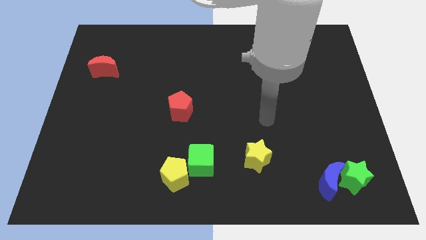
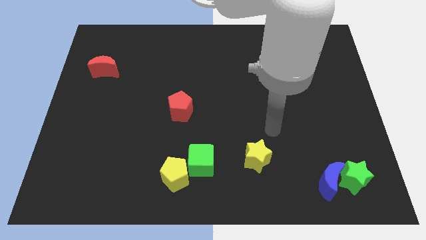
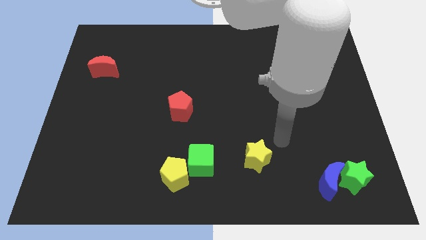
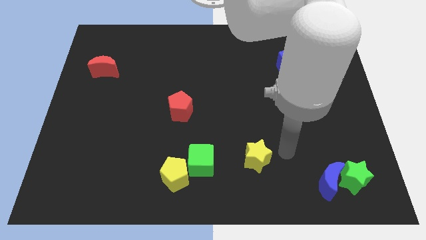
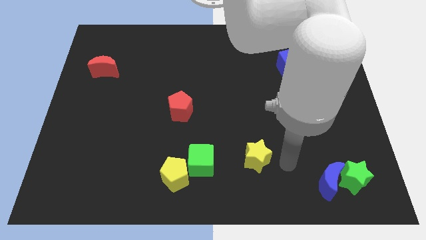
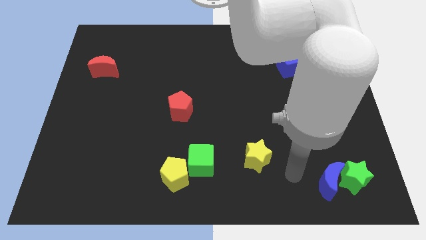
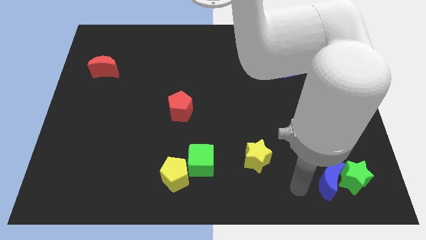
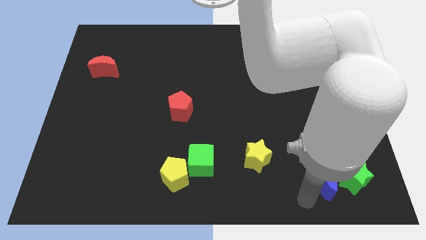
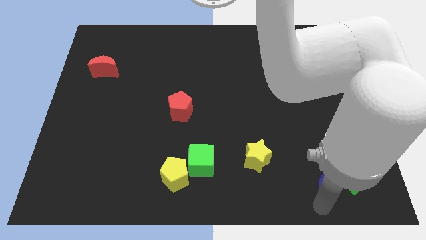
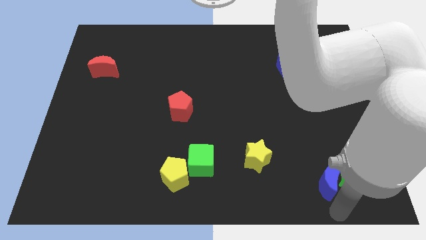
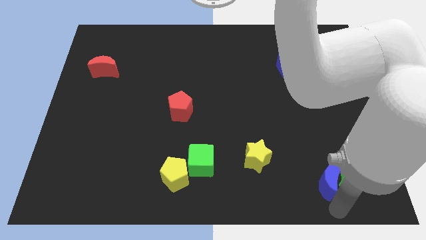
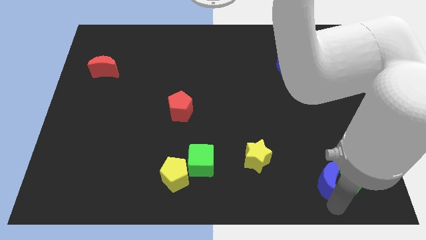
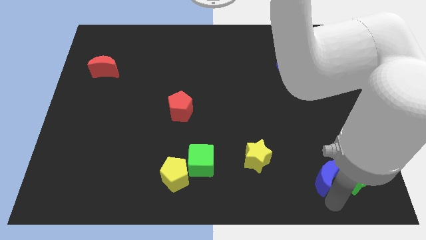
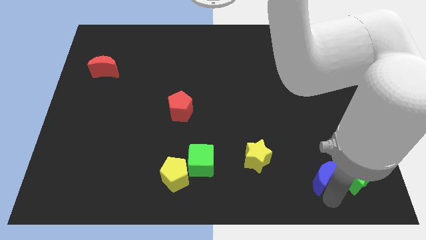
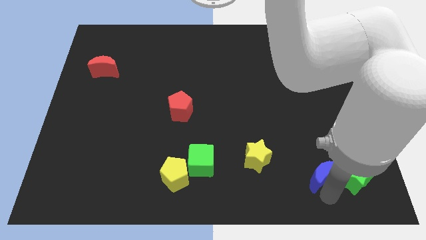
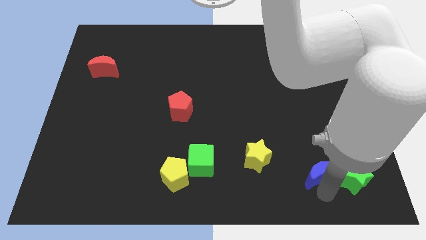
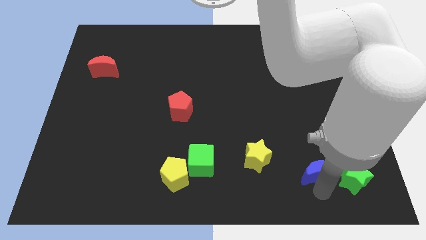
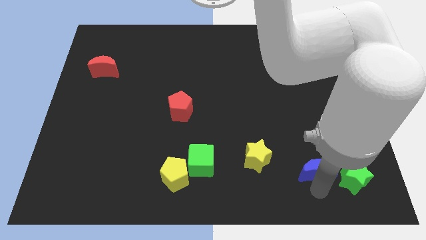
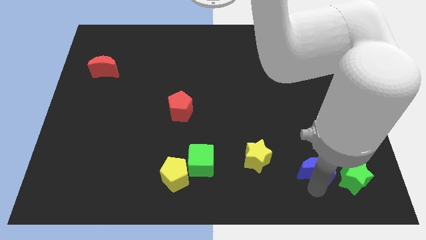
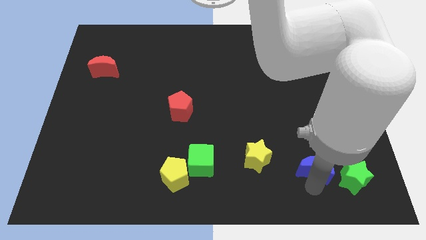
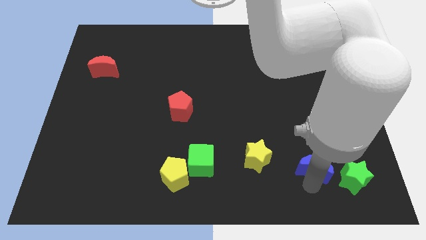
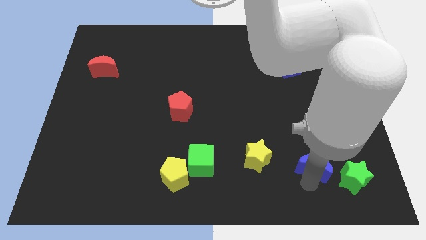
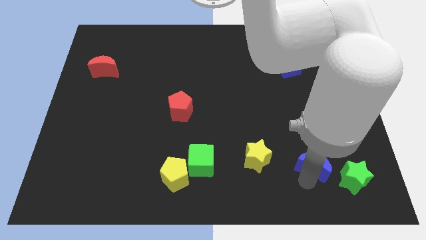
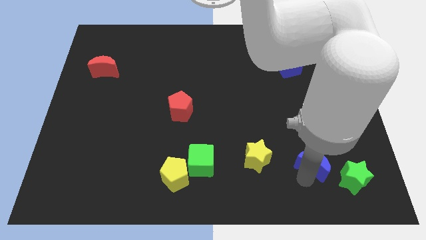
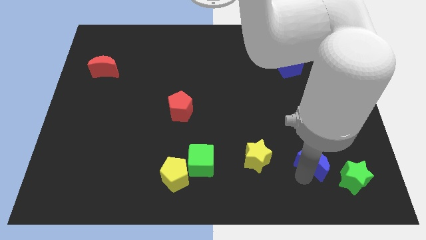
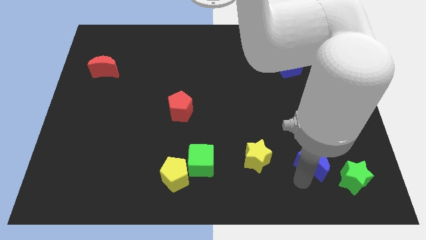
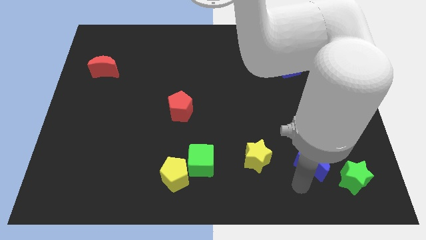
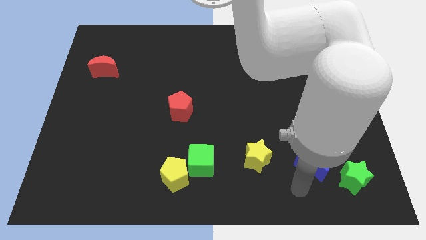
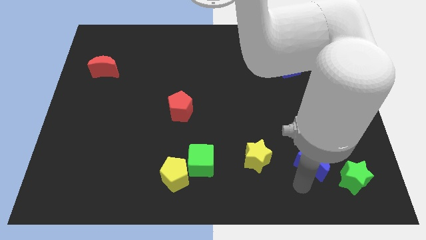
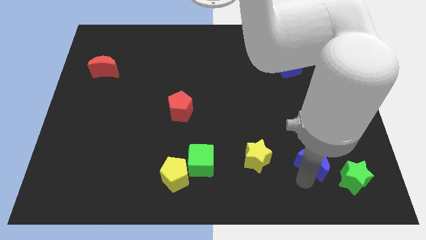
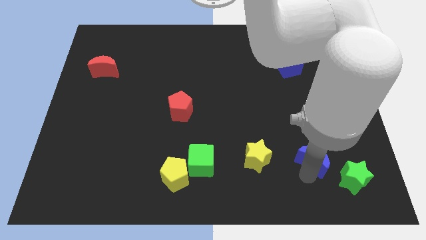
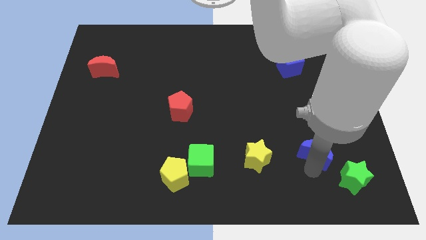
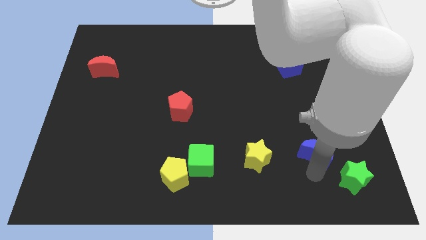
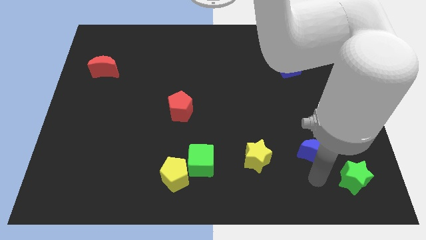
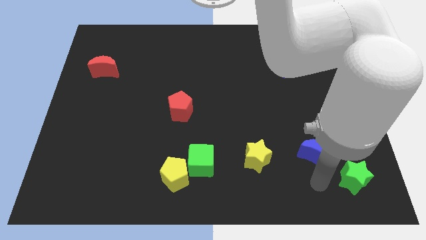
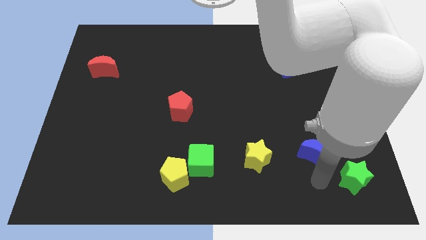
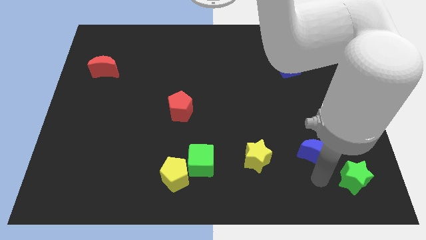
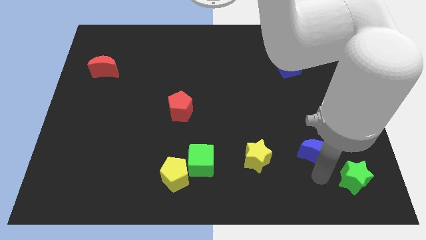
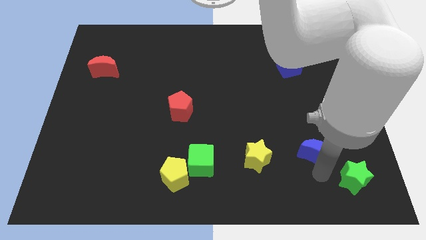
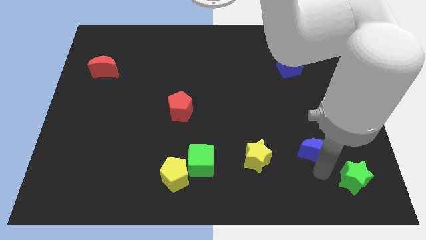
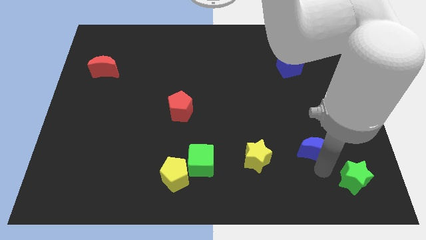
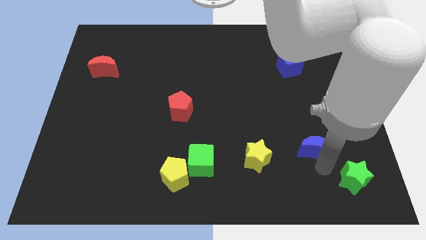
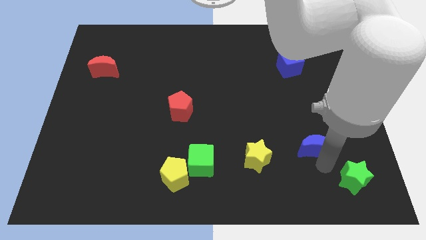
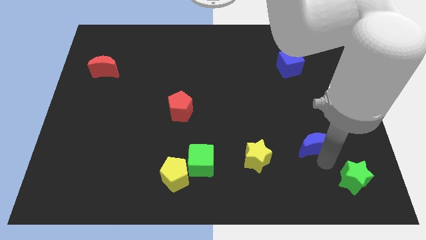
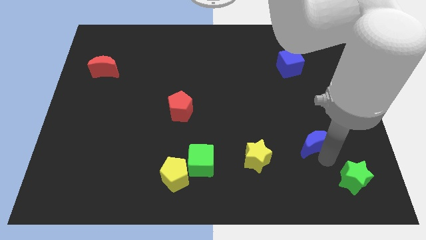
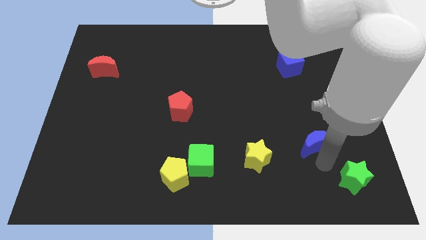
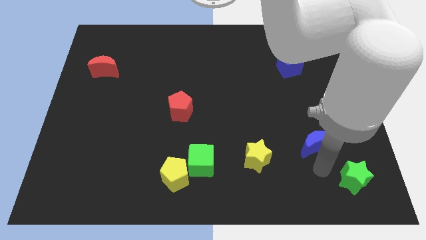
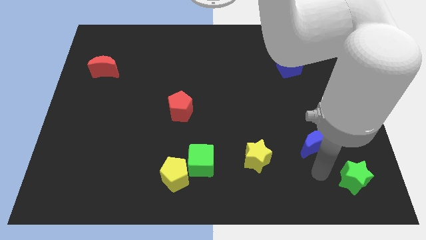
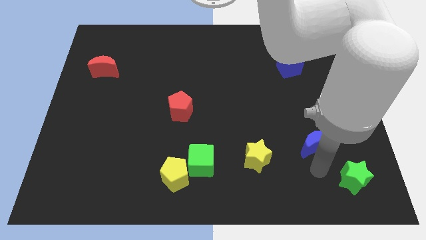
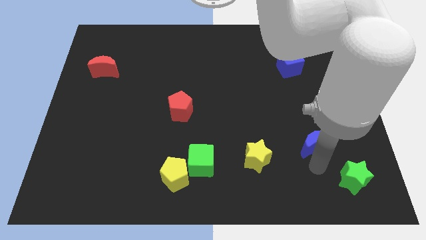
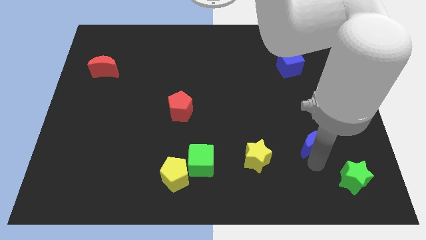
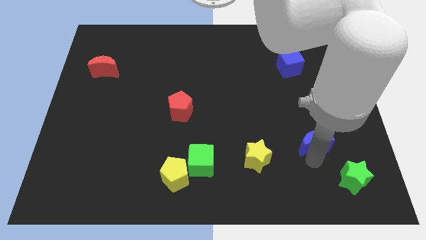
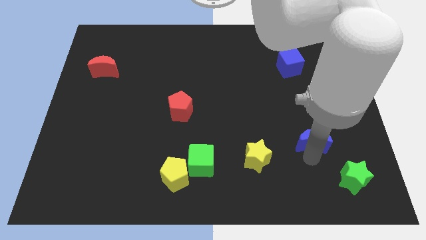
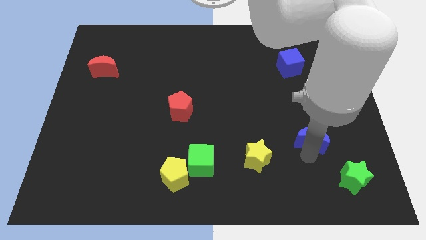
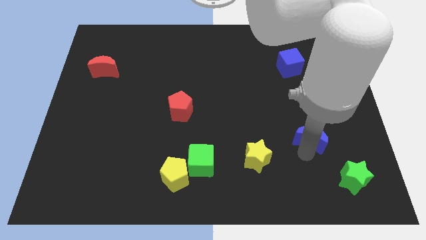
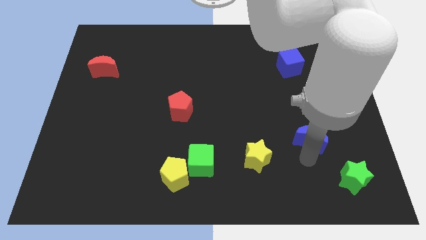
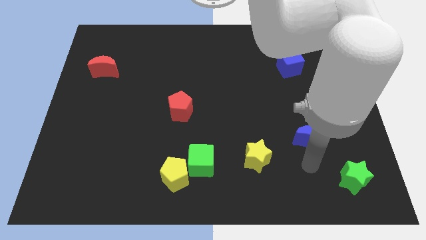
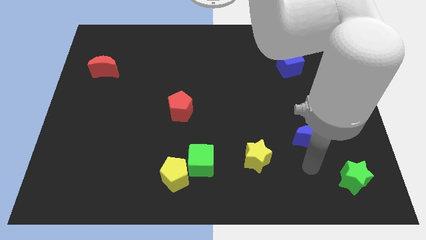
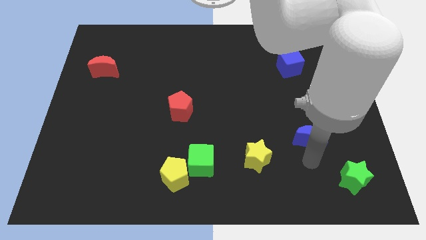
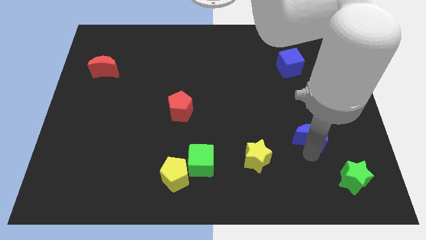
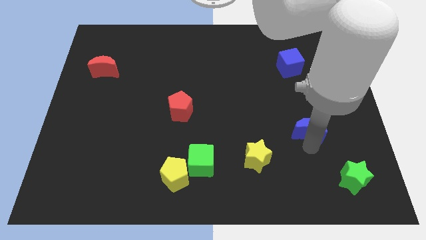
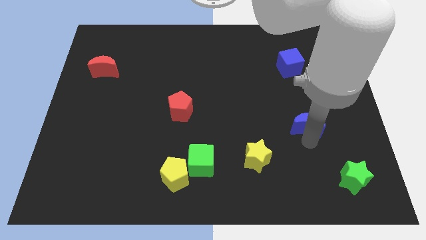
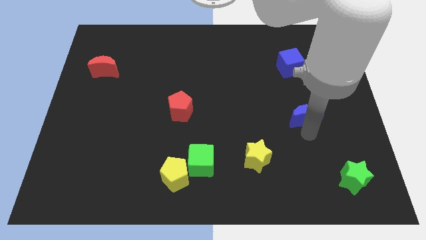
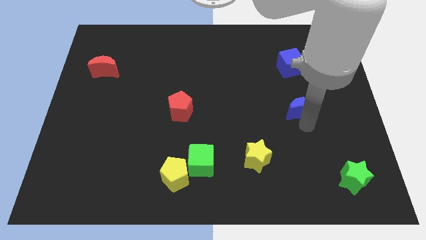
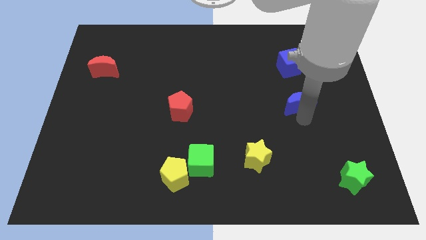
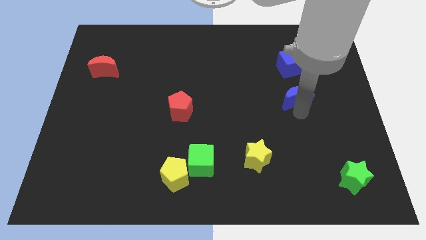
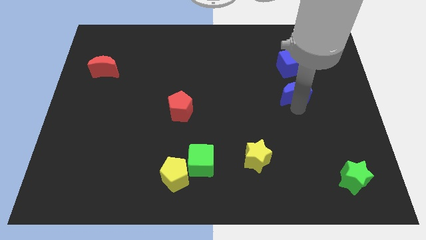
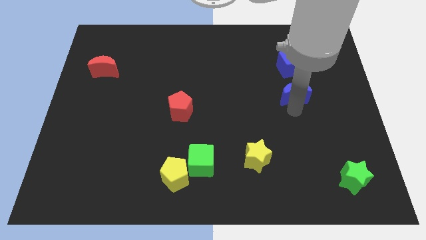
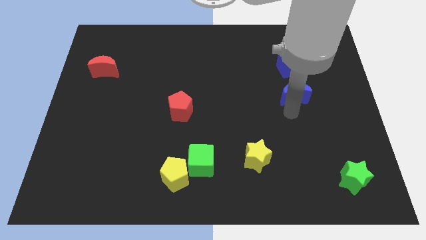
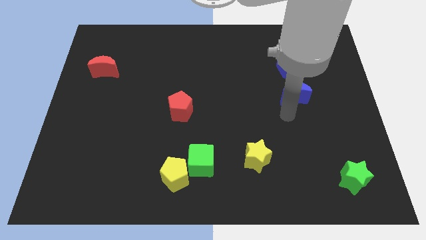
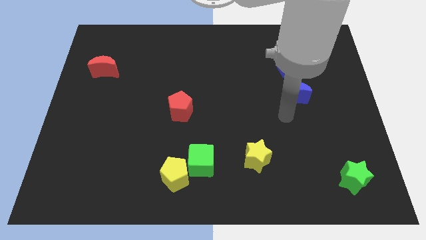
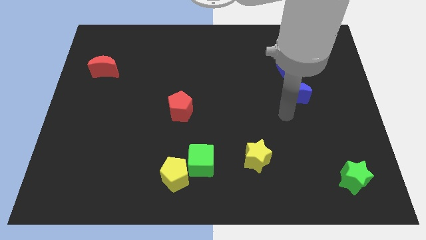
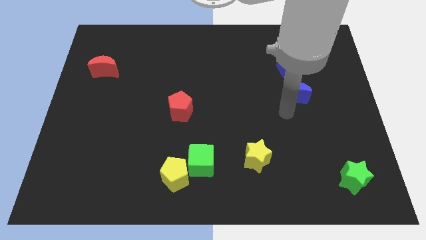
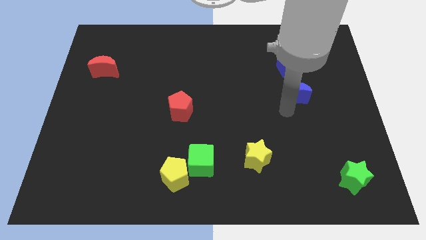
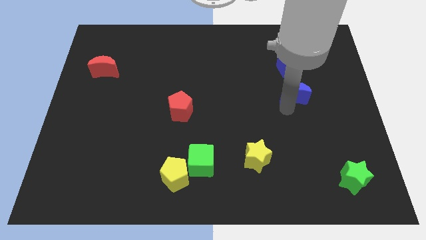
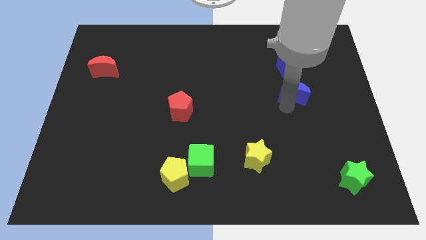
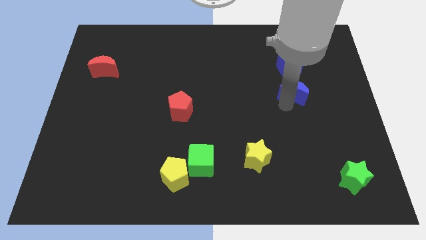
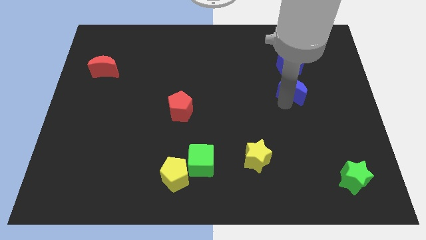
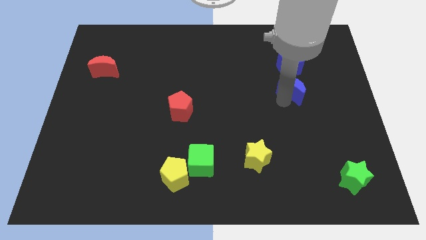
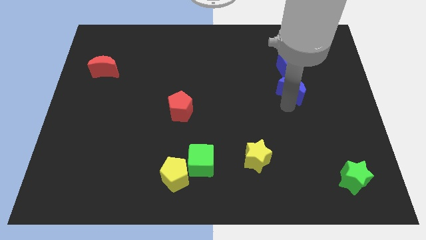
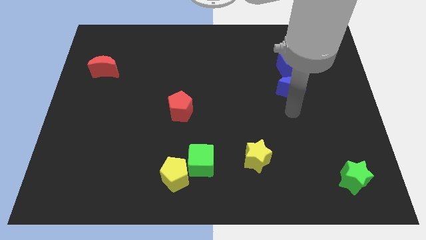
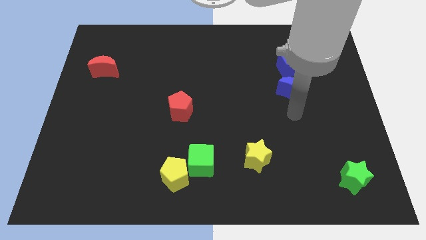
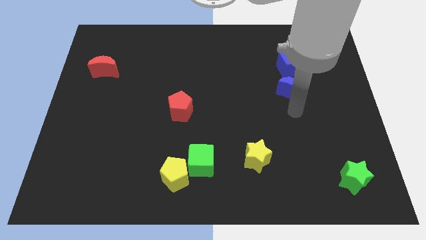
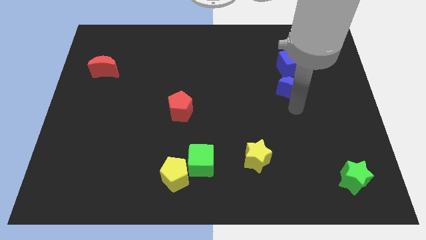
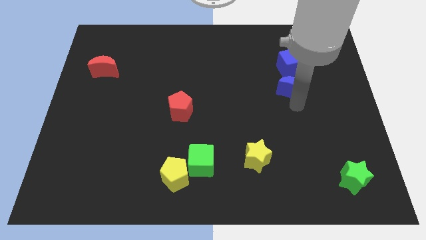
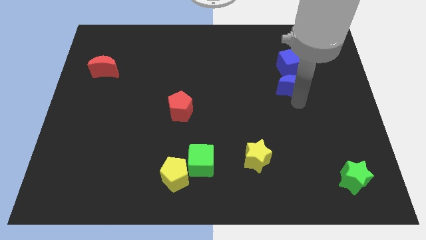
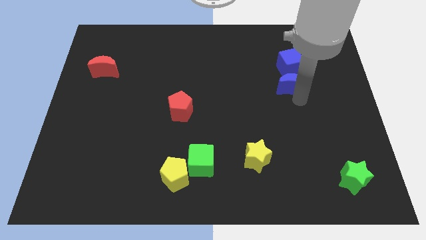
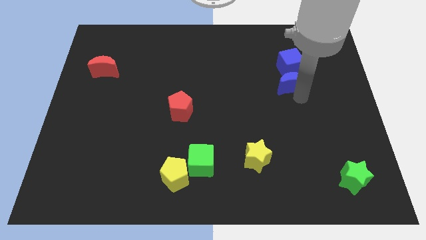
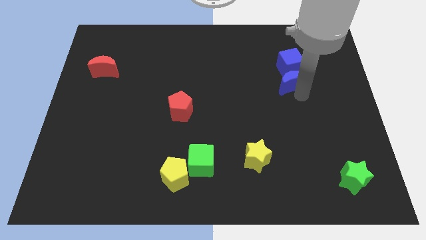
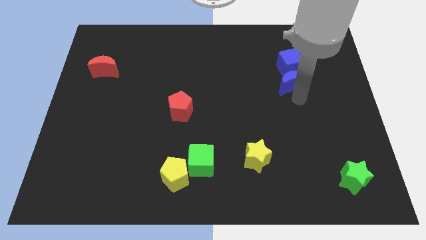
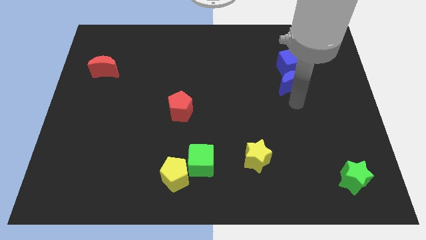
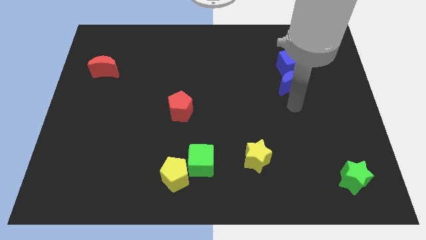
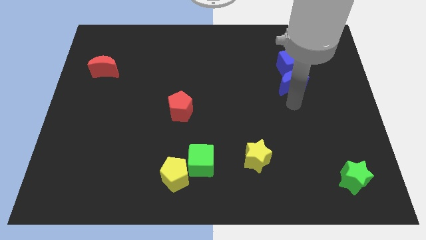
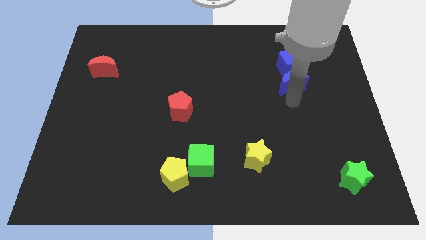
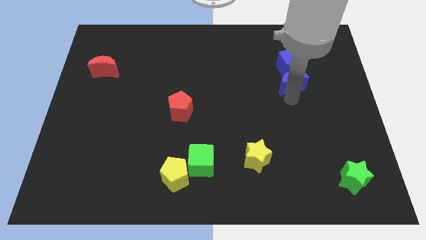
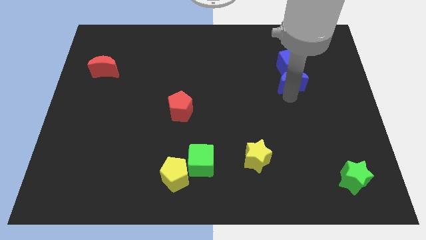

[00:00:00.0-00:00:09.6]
slide the blue moon close to the blue cube
